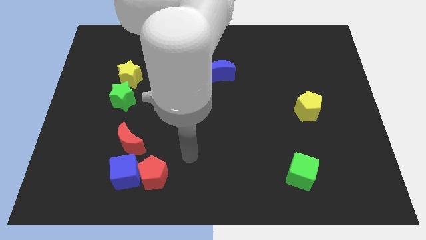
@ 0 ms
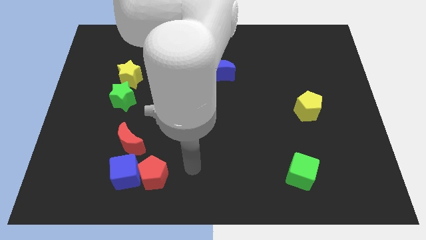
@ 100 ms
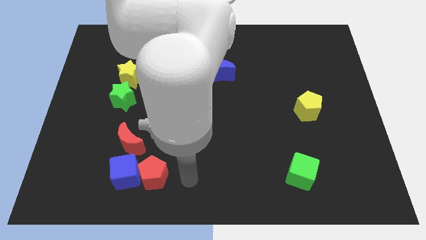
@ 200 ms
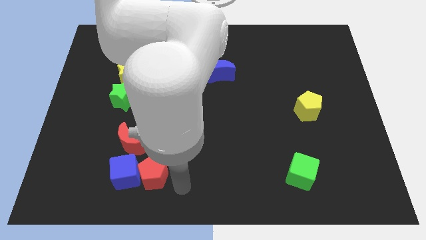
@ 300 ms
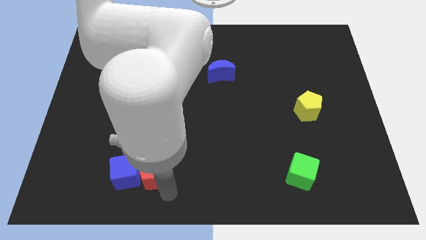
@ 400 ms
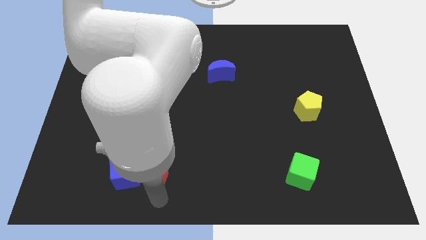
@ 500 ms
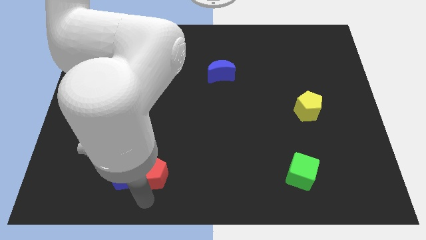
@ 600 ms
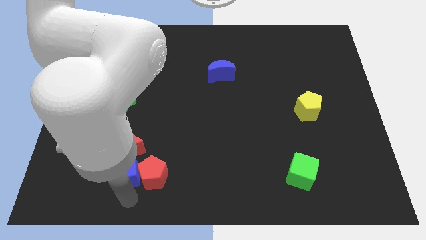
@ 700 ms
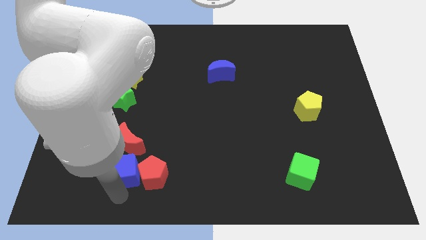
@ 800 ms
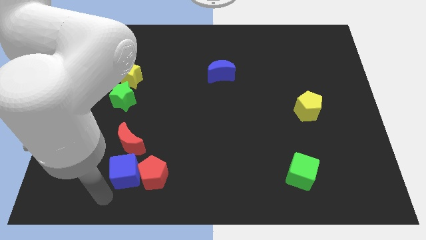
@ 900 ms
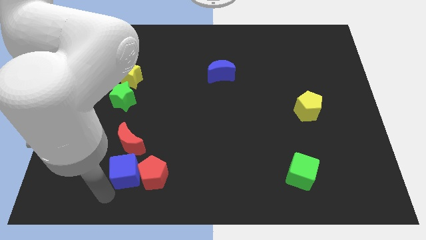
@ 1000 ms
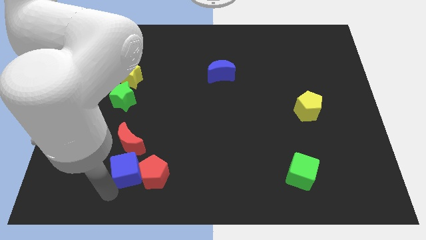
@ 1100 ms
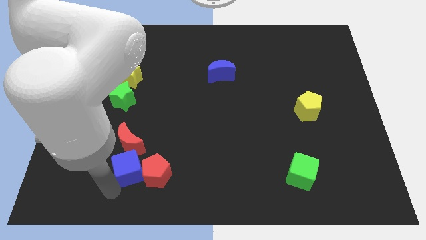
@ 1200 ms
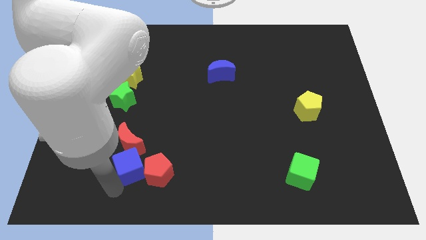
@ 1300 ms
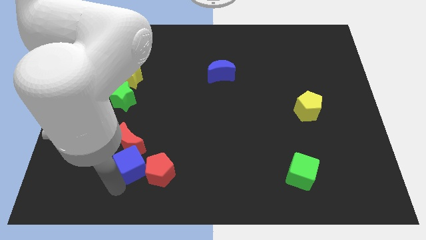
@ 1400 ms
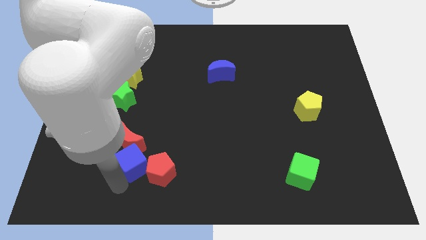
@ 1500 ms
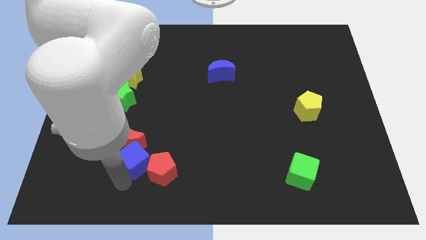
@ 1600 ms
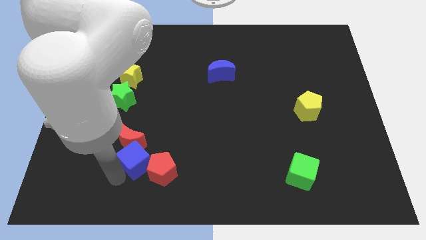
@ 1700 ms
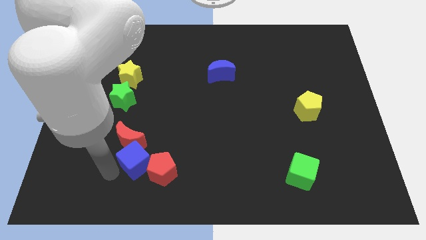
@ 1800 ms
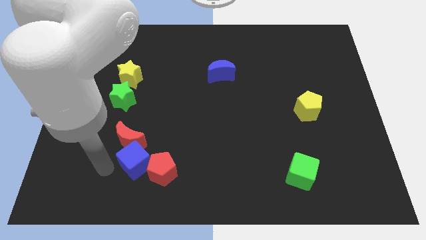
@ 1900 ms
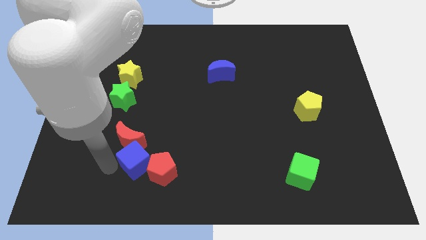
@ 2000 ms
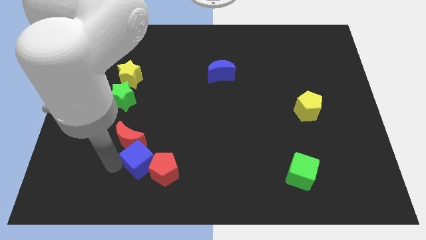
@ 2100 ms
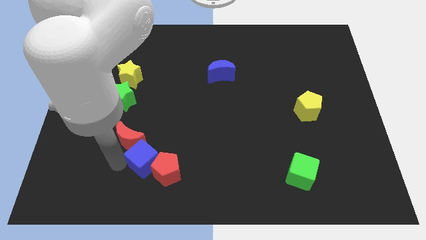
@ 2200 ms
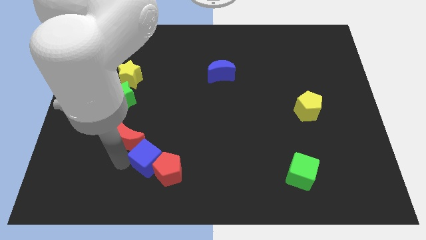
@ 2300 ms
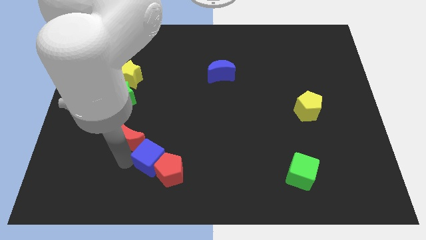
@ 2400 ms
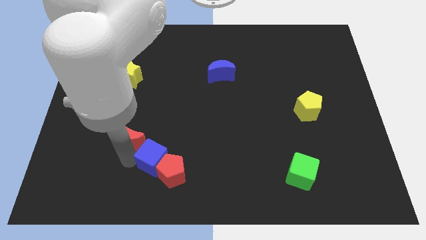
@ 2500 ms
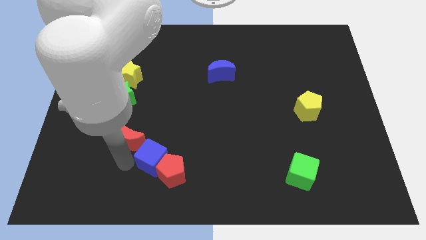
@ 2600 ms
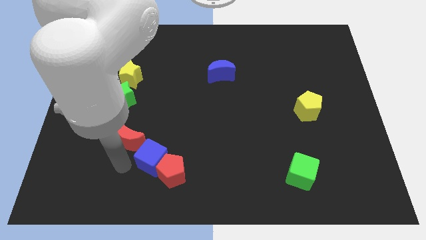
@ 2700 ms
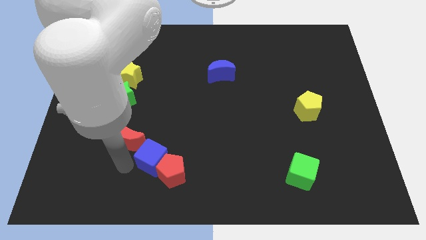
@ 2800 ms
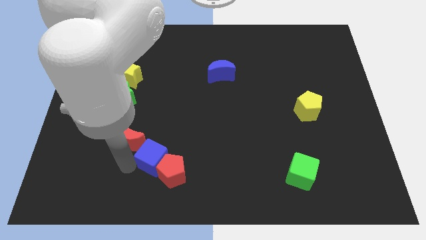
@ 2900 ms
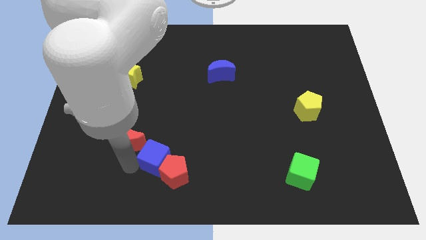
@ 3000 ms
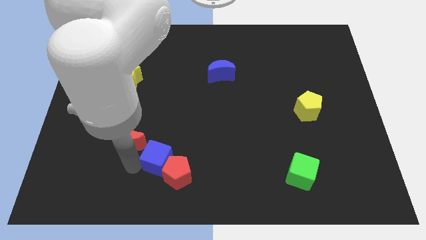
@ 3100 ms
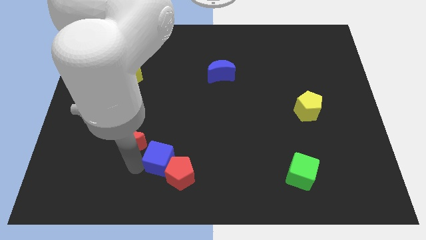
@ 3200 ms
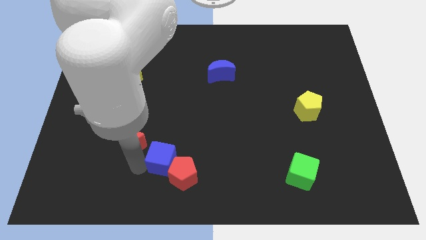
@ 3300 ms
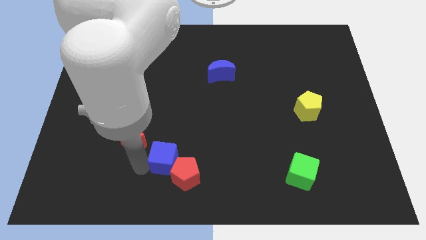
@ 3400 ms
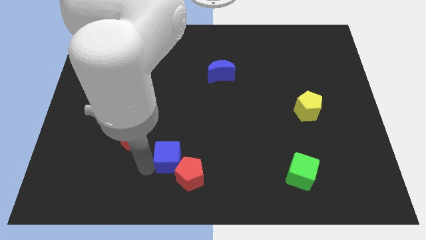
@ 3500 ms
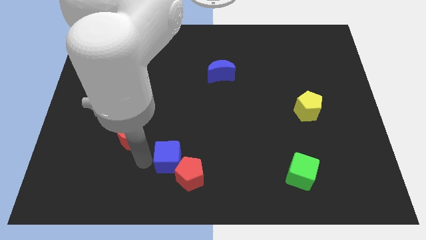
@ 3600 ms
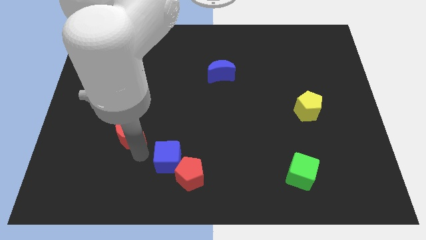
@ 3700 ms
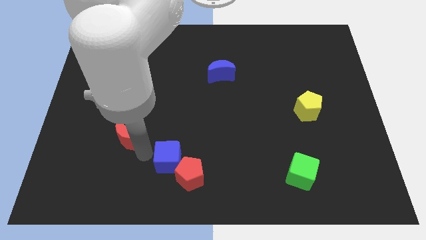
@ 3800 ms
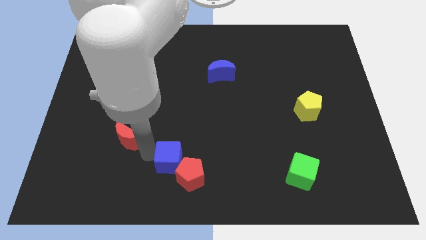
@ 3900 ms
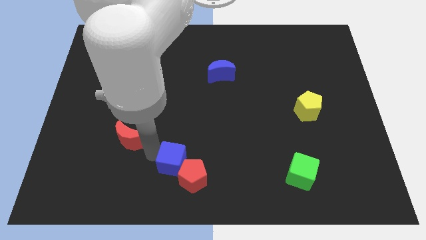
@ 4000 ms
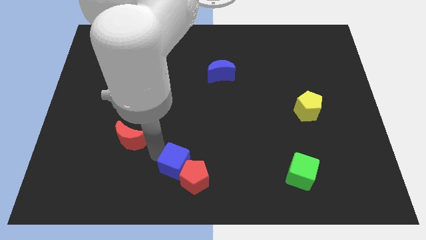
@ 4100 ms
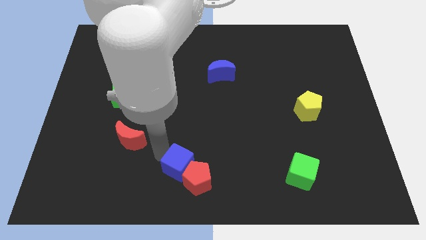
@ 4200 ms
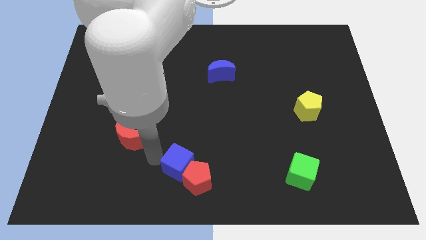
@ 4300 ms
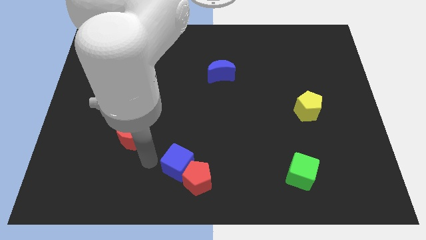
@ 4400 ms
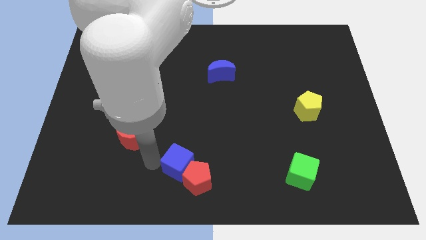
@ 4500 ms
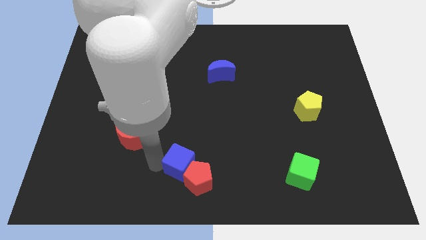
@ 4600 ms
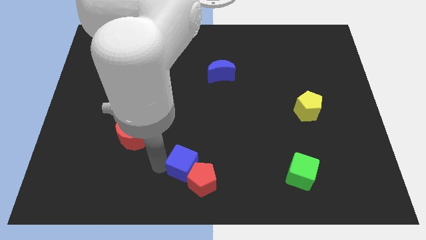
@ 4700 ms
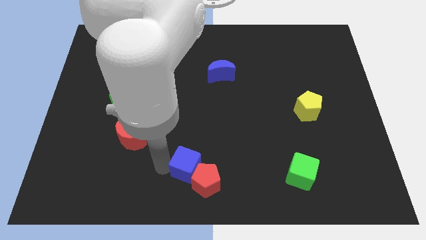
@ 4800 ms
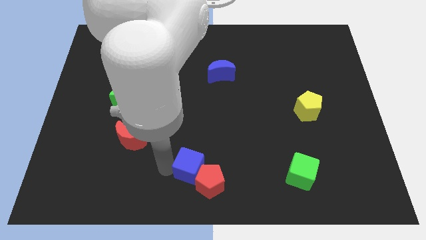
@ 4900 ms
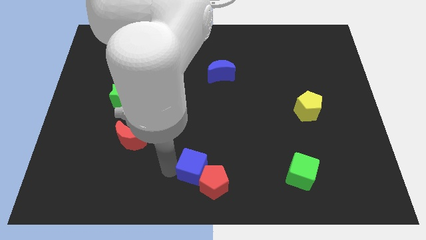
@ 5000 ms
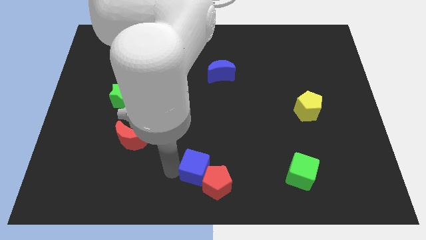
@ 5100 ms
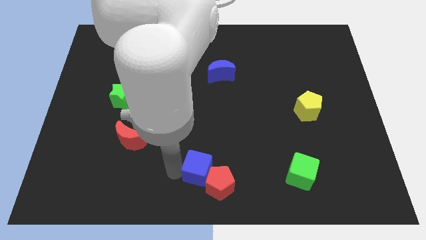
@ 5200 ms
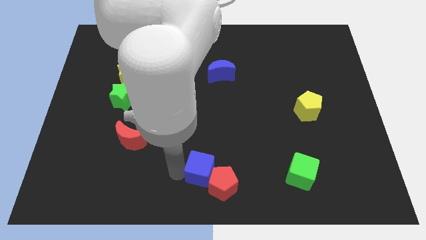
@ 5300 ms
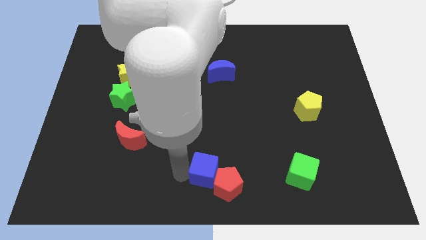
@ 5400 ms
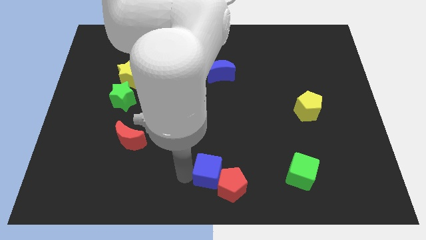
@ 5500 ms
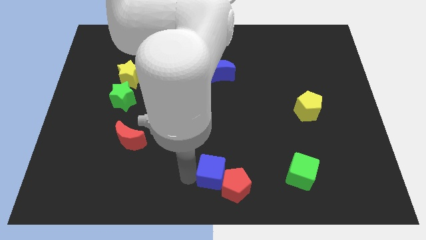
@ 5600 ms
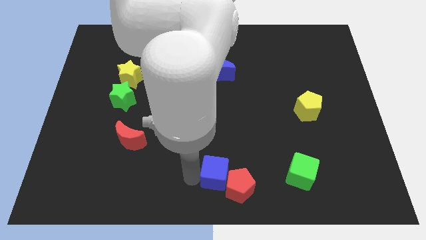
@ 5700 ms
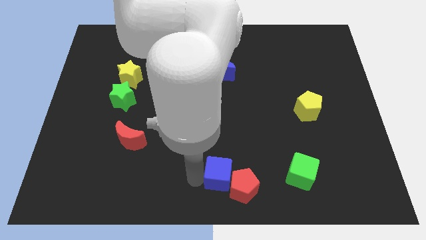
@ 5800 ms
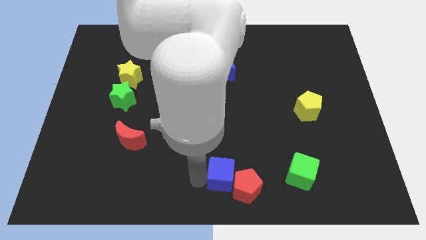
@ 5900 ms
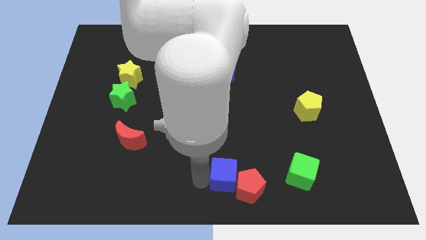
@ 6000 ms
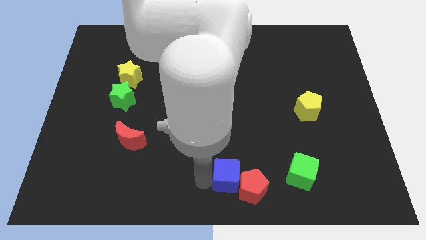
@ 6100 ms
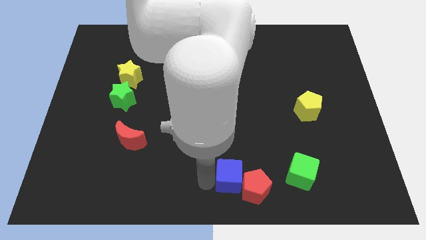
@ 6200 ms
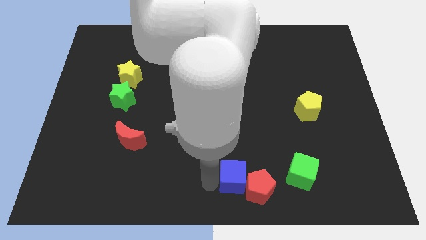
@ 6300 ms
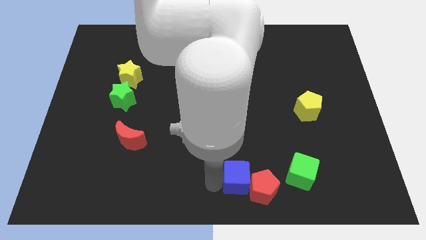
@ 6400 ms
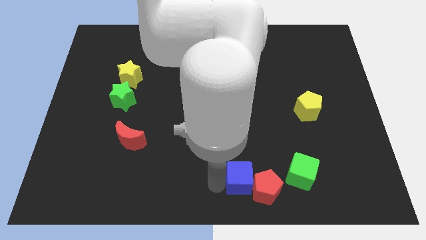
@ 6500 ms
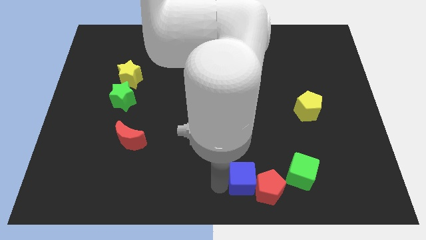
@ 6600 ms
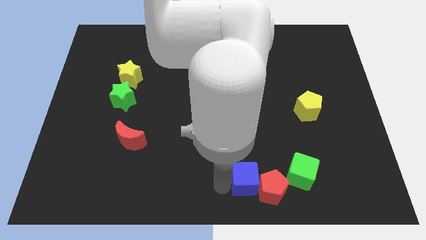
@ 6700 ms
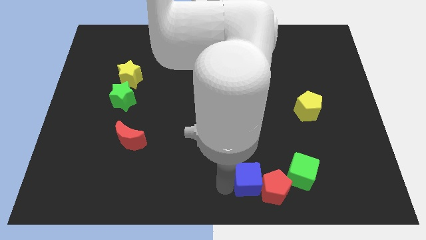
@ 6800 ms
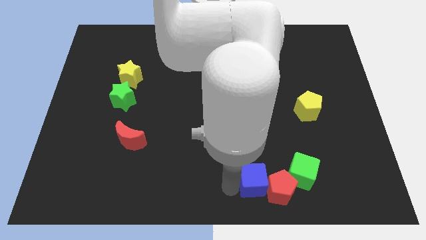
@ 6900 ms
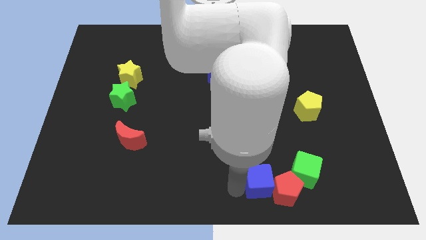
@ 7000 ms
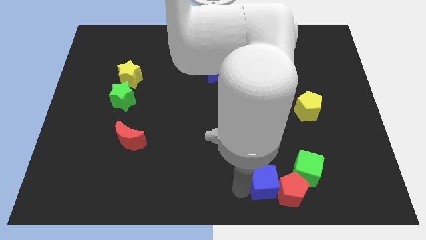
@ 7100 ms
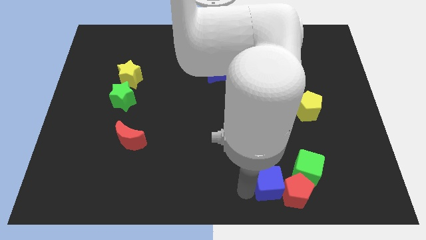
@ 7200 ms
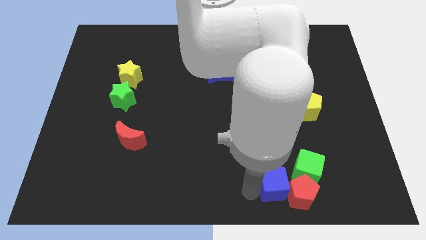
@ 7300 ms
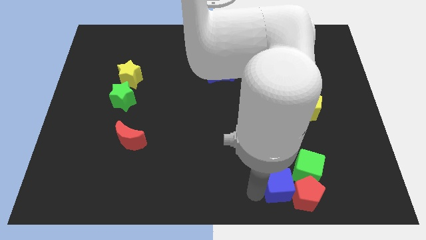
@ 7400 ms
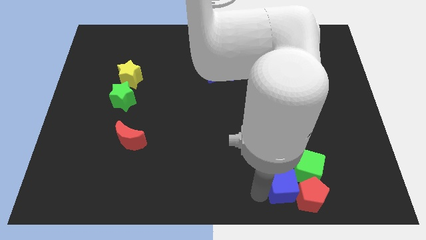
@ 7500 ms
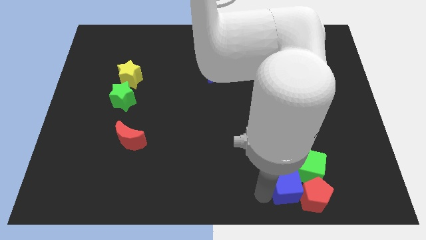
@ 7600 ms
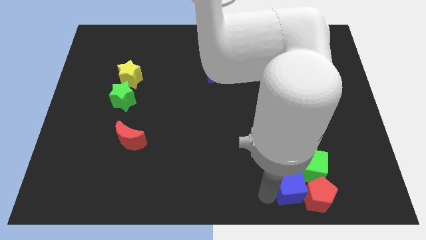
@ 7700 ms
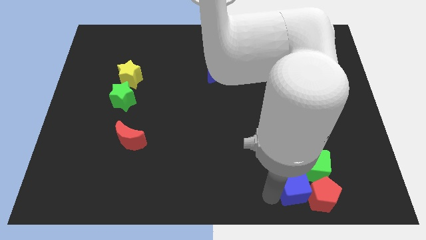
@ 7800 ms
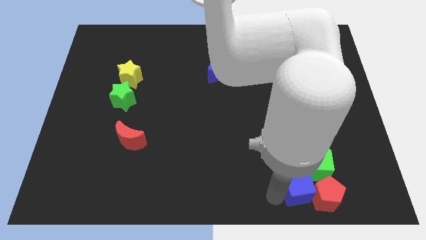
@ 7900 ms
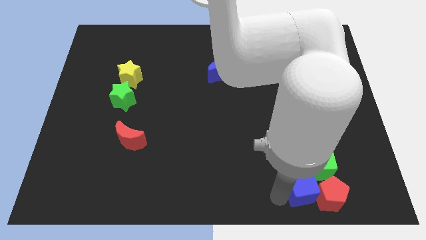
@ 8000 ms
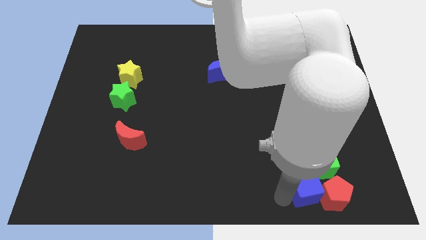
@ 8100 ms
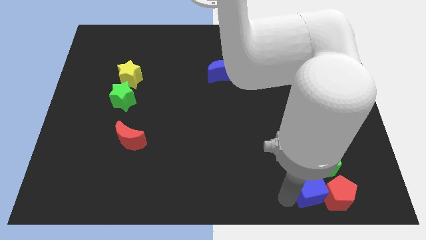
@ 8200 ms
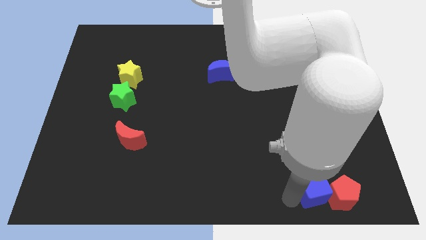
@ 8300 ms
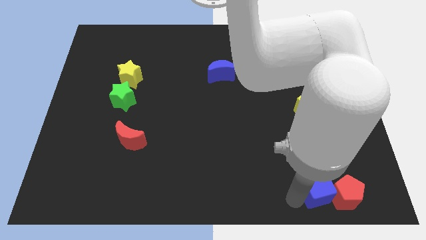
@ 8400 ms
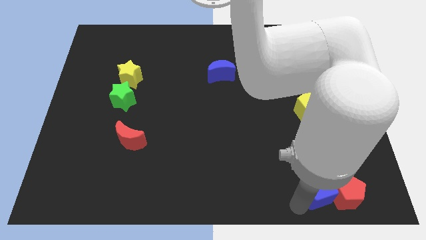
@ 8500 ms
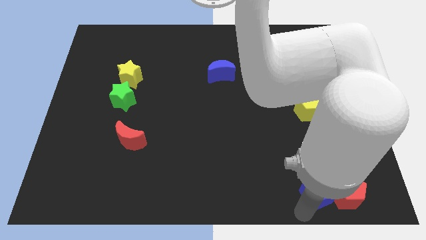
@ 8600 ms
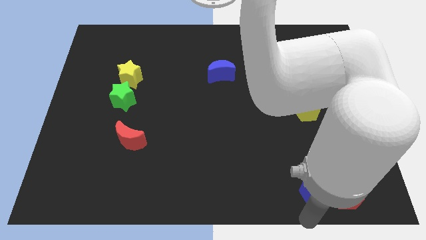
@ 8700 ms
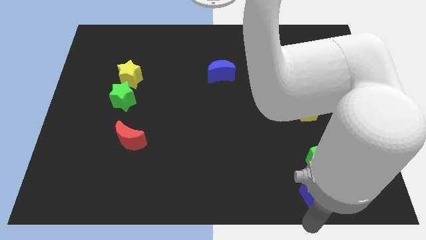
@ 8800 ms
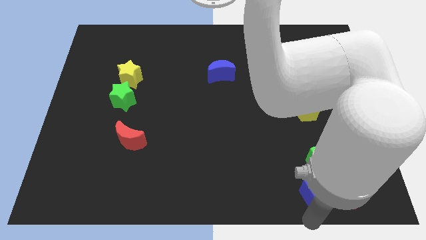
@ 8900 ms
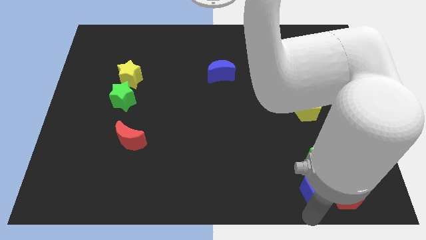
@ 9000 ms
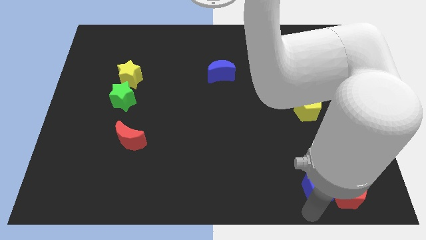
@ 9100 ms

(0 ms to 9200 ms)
push the blue cube next to the green cube
